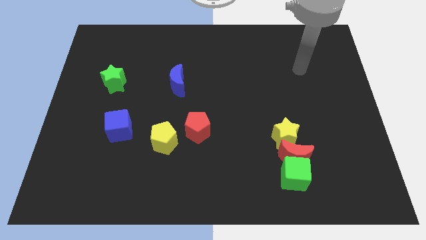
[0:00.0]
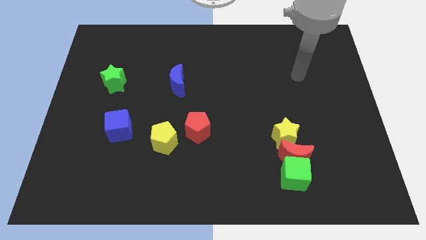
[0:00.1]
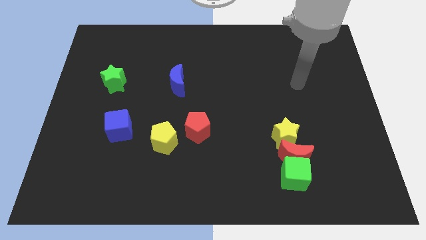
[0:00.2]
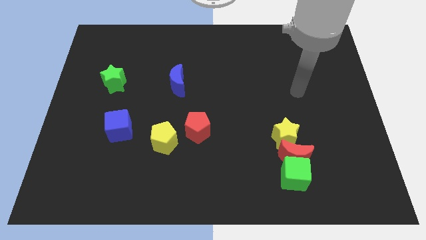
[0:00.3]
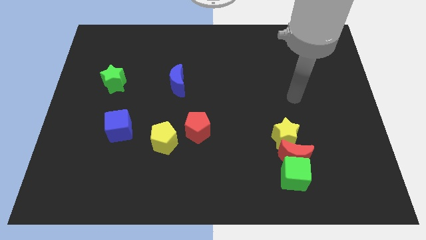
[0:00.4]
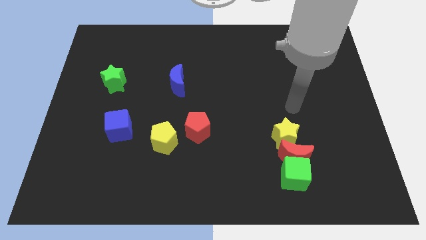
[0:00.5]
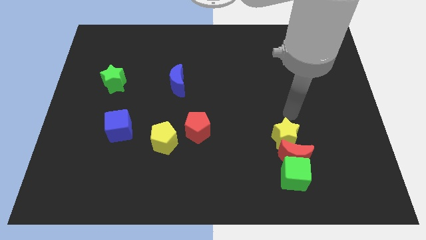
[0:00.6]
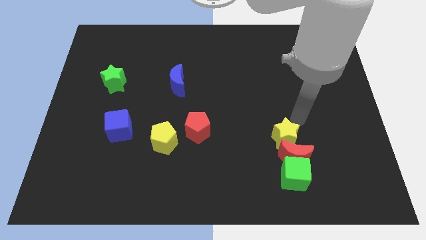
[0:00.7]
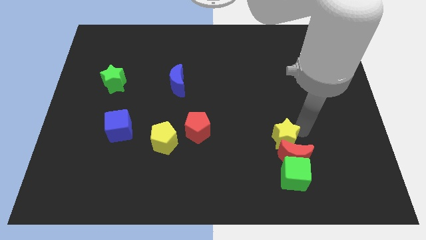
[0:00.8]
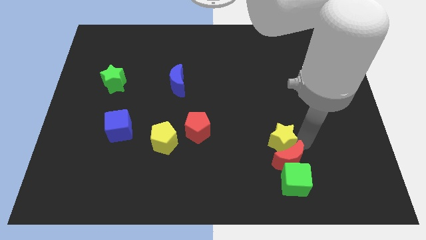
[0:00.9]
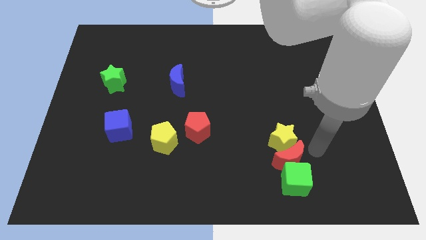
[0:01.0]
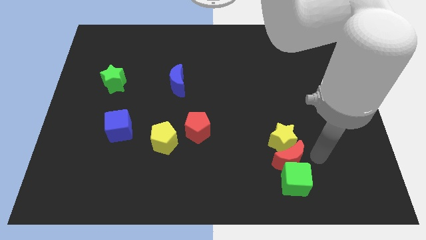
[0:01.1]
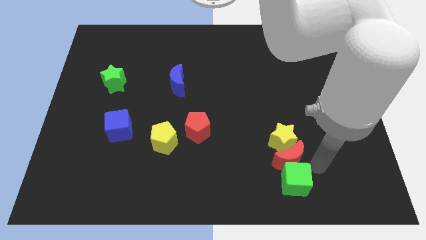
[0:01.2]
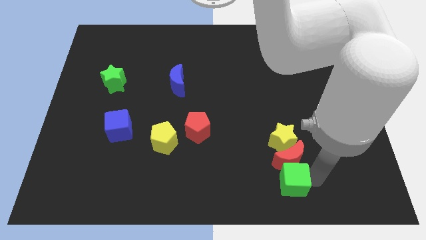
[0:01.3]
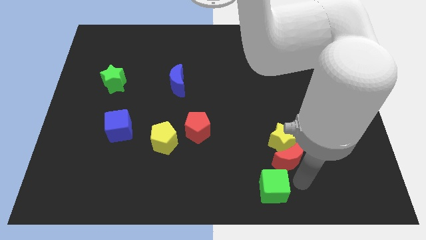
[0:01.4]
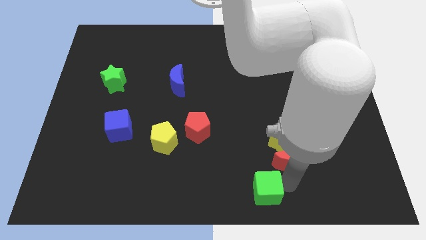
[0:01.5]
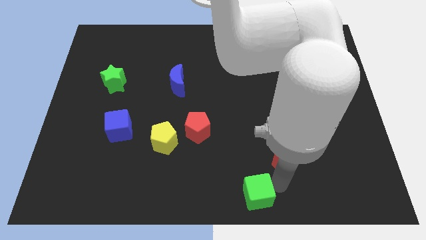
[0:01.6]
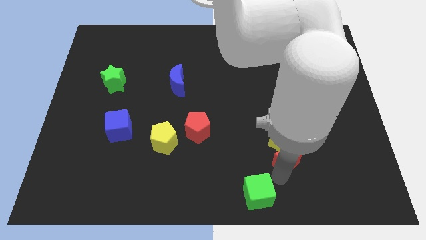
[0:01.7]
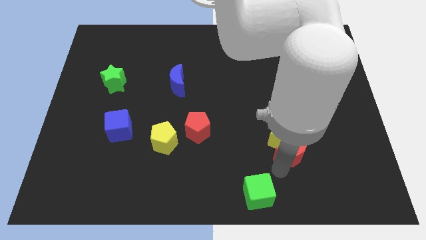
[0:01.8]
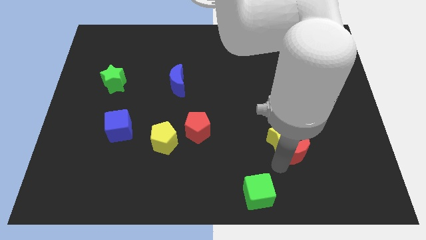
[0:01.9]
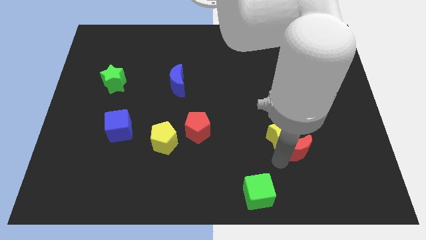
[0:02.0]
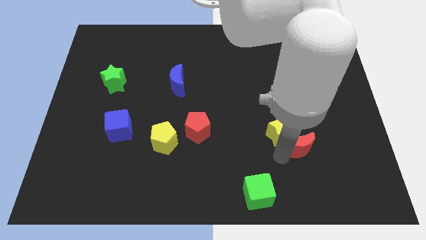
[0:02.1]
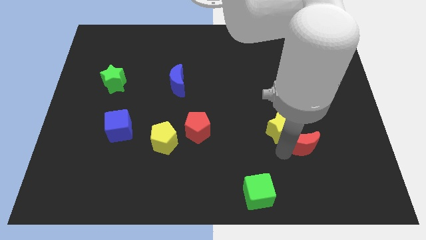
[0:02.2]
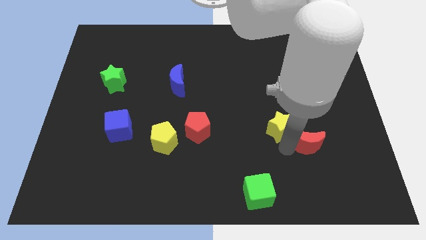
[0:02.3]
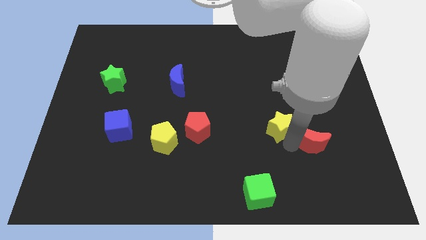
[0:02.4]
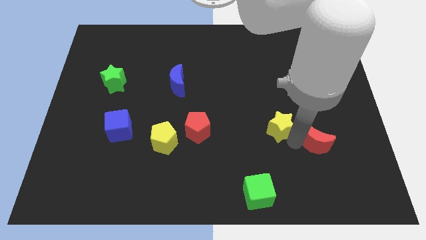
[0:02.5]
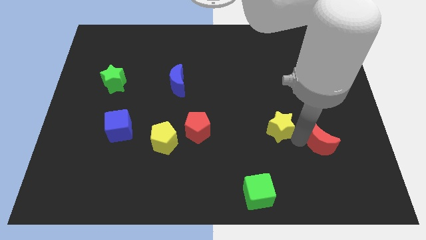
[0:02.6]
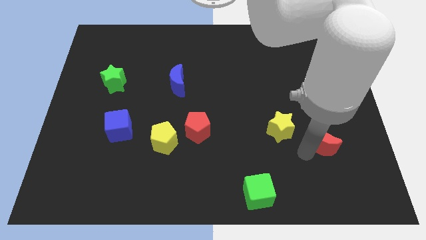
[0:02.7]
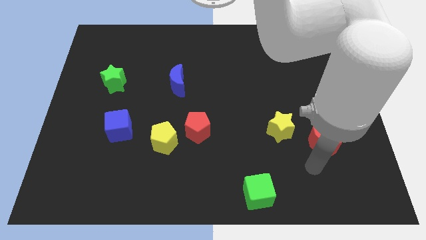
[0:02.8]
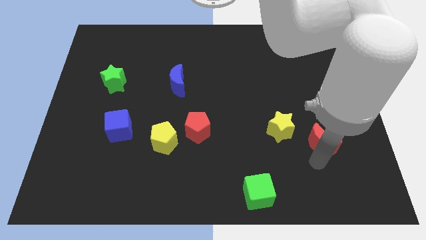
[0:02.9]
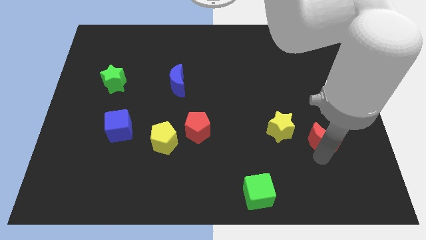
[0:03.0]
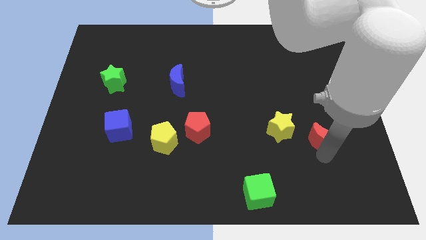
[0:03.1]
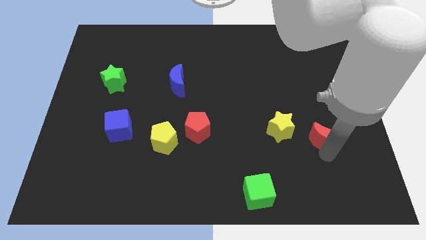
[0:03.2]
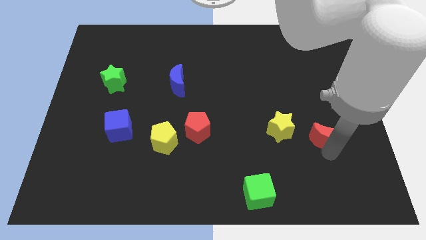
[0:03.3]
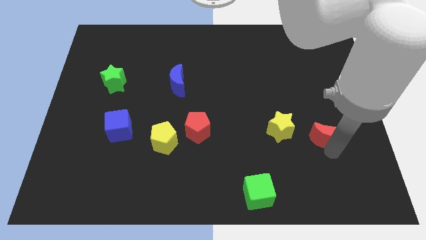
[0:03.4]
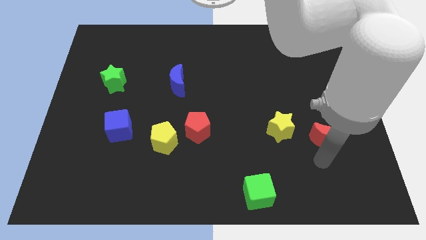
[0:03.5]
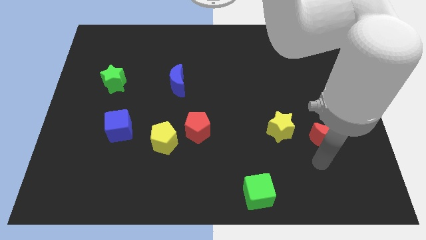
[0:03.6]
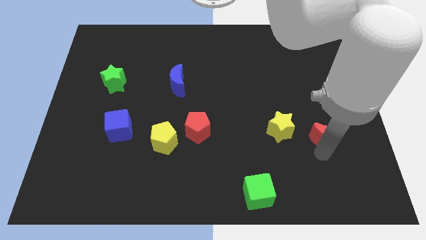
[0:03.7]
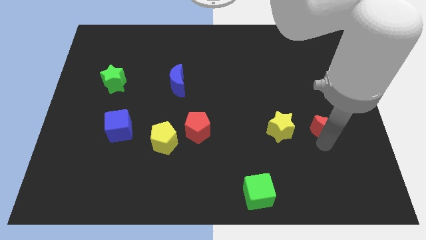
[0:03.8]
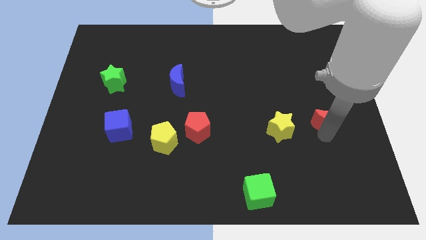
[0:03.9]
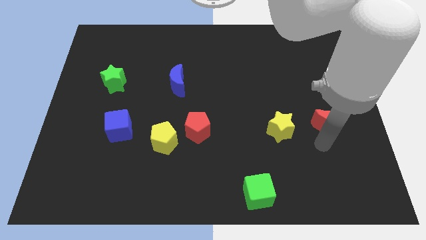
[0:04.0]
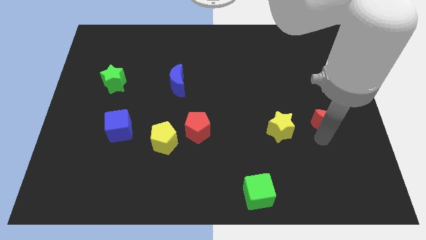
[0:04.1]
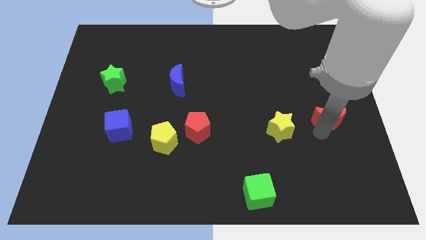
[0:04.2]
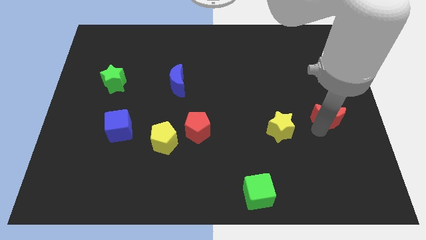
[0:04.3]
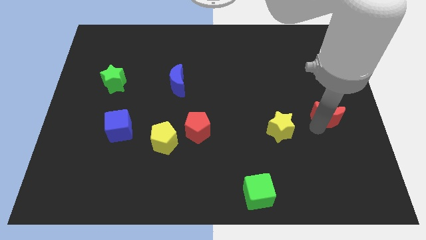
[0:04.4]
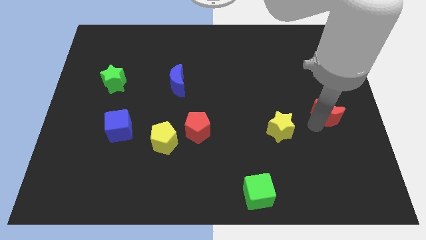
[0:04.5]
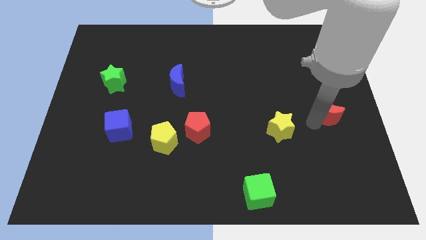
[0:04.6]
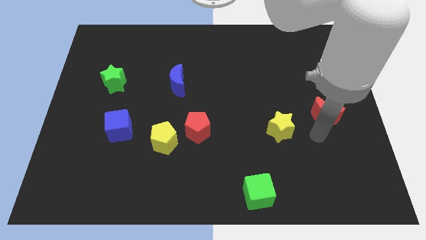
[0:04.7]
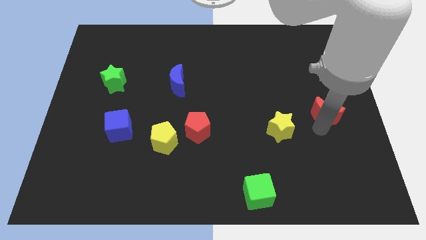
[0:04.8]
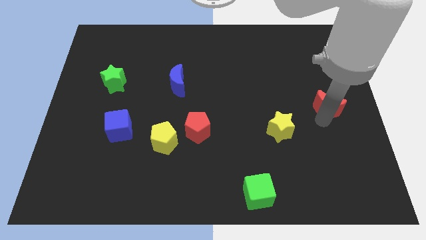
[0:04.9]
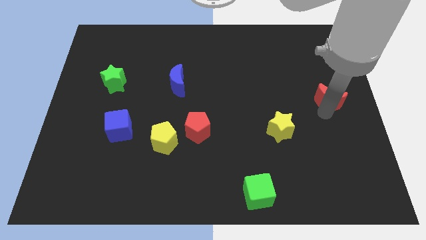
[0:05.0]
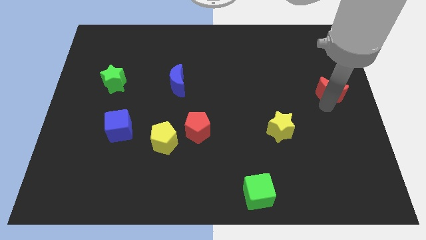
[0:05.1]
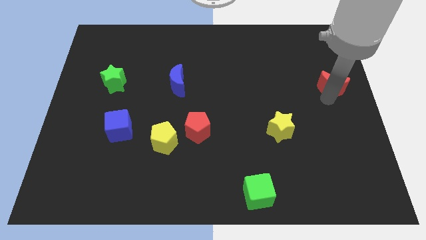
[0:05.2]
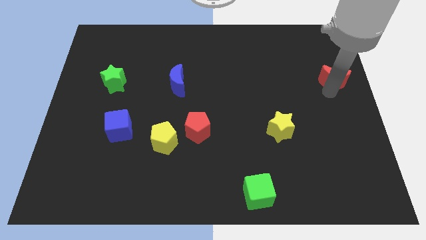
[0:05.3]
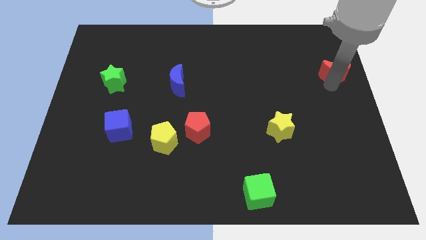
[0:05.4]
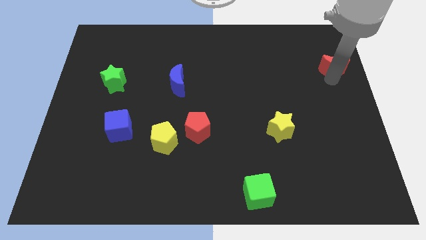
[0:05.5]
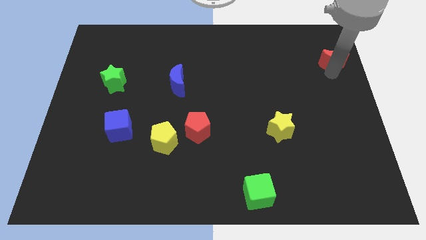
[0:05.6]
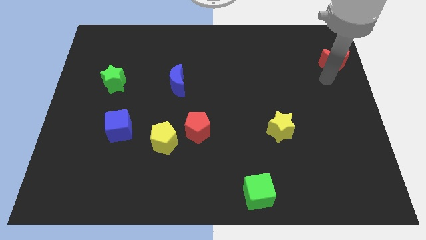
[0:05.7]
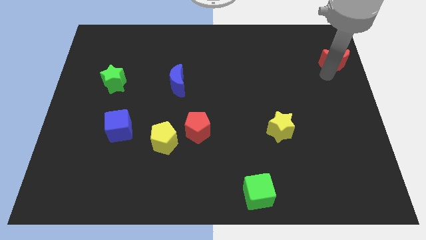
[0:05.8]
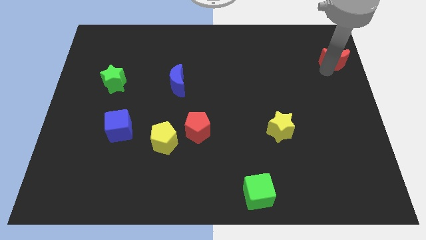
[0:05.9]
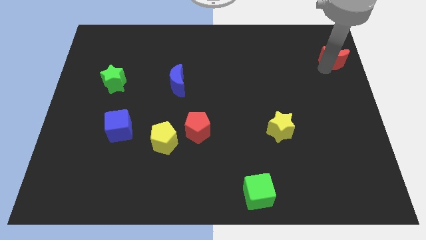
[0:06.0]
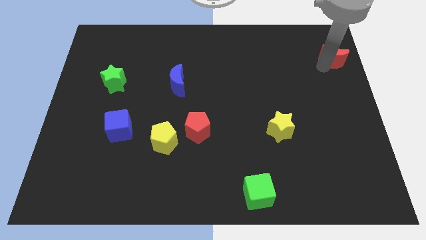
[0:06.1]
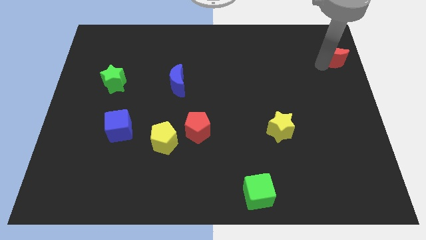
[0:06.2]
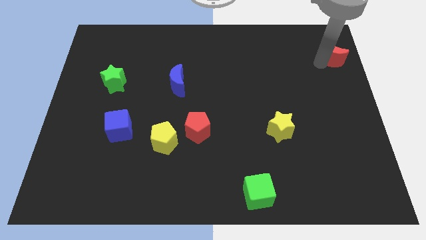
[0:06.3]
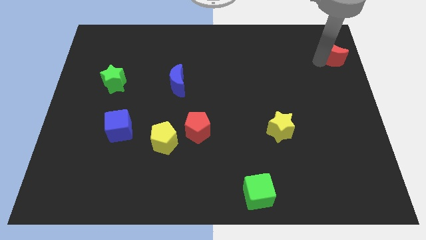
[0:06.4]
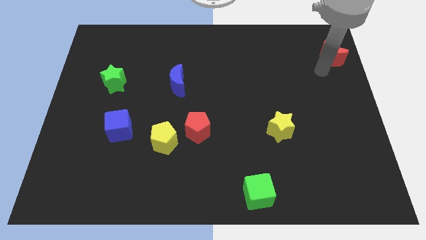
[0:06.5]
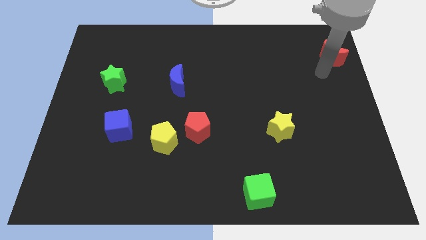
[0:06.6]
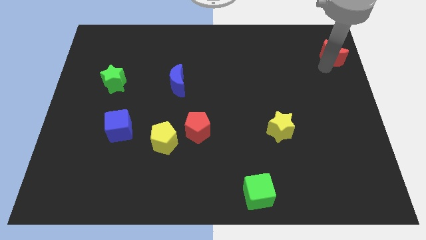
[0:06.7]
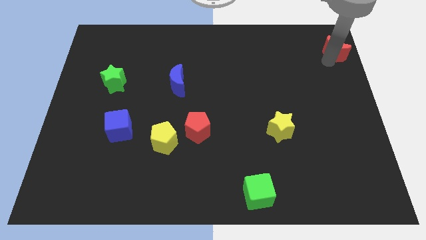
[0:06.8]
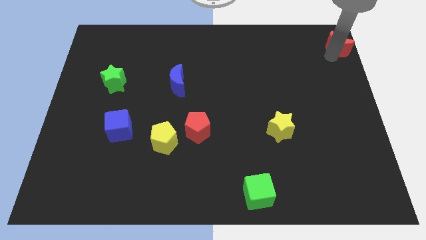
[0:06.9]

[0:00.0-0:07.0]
slide the red moon to the top right corner
